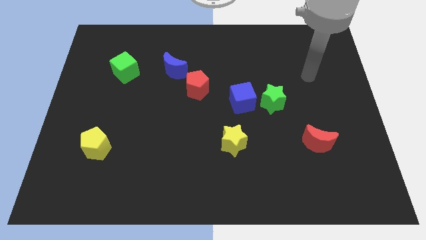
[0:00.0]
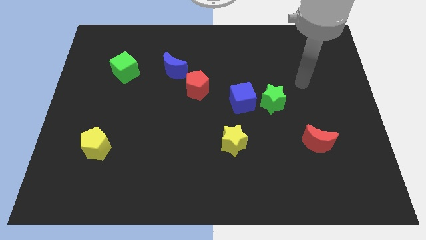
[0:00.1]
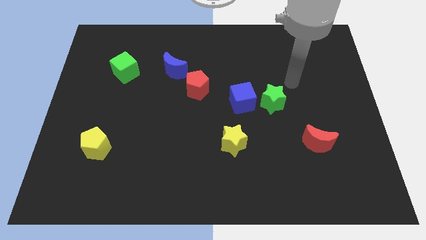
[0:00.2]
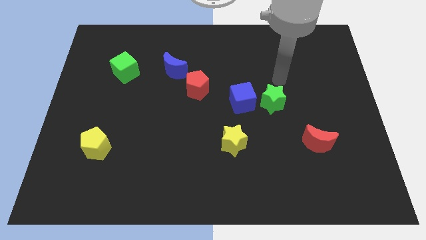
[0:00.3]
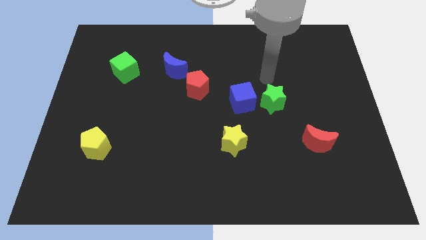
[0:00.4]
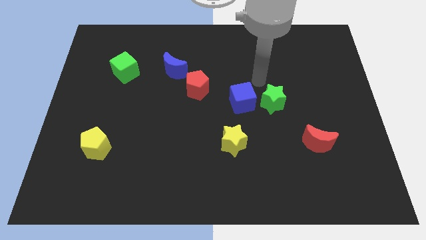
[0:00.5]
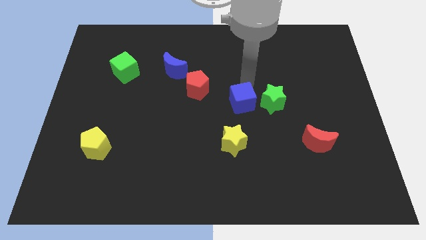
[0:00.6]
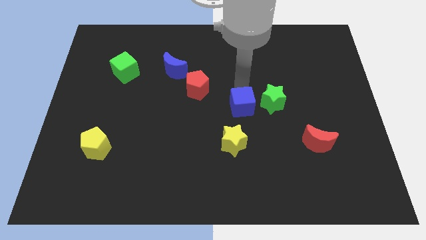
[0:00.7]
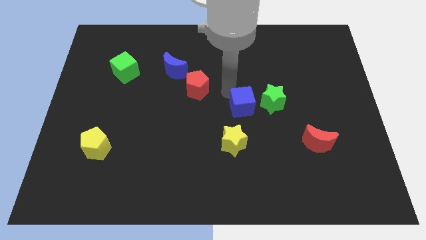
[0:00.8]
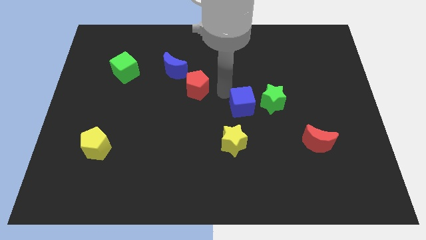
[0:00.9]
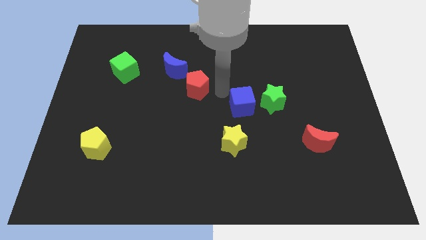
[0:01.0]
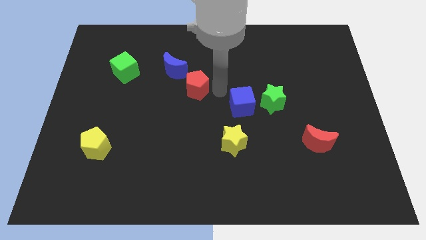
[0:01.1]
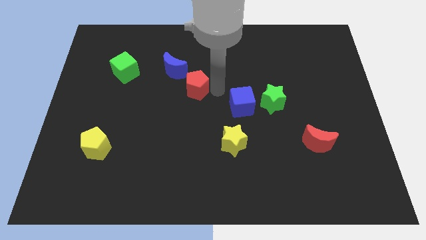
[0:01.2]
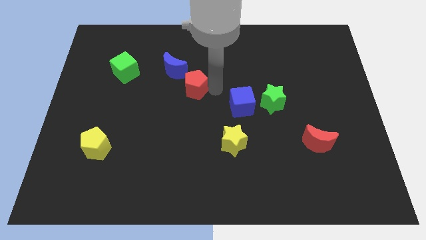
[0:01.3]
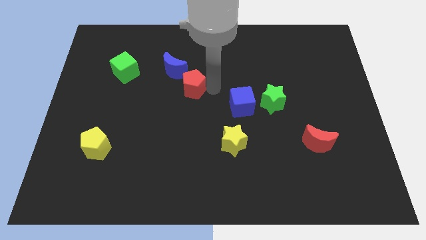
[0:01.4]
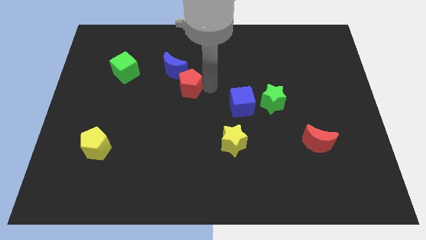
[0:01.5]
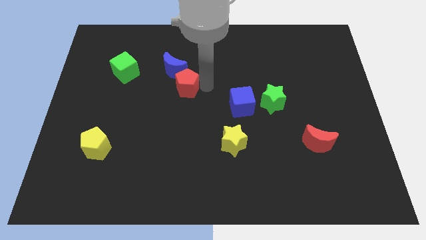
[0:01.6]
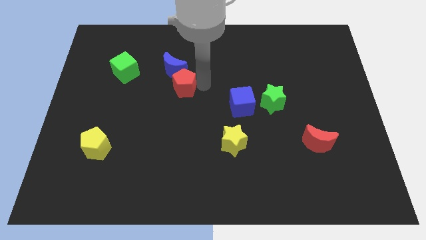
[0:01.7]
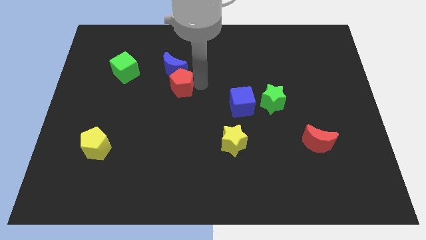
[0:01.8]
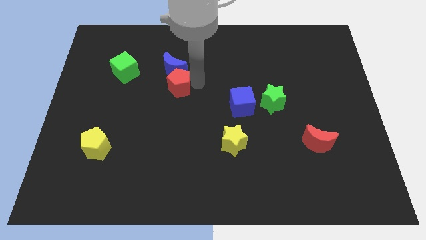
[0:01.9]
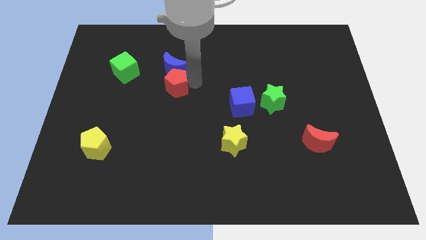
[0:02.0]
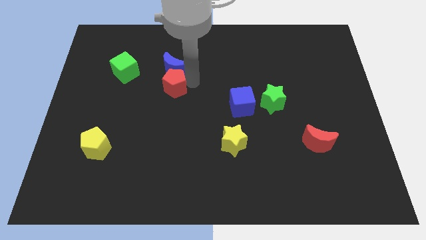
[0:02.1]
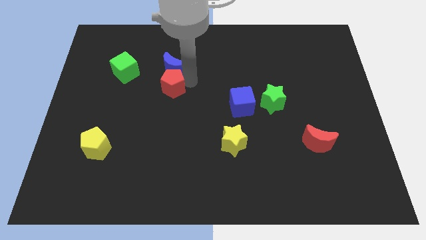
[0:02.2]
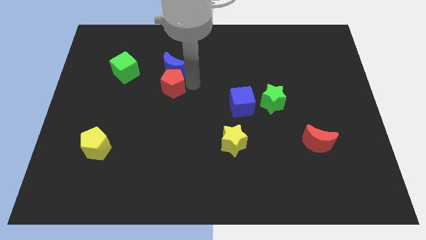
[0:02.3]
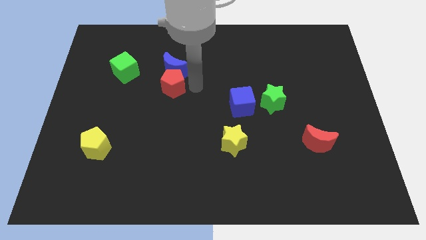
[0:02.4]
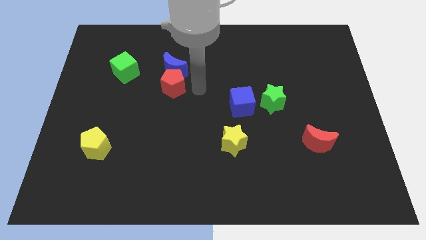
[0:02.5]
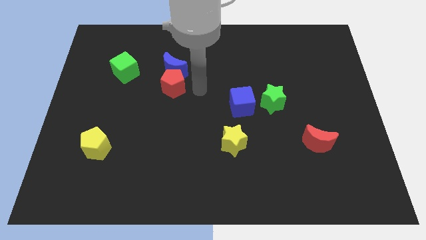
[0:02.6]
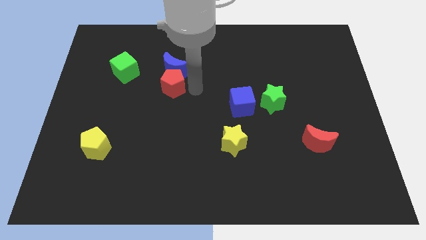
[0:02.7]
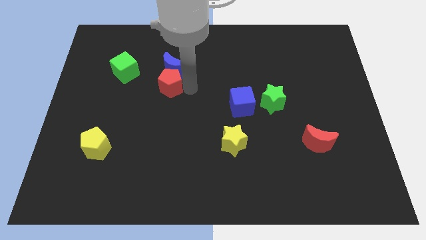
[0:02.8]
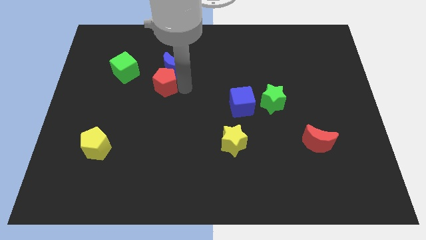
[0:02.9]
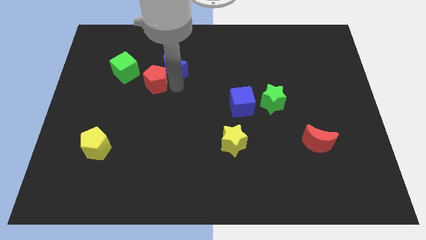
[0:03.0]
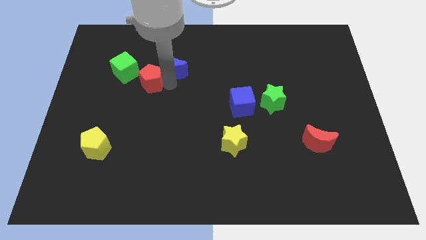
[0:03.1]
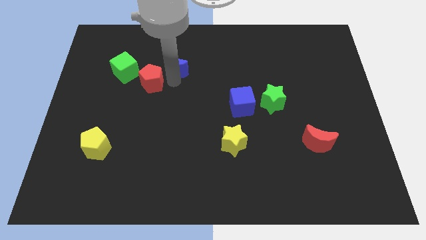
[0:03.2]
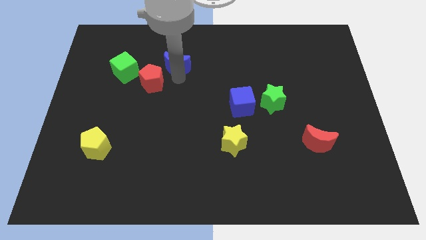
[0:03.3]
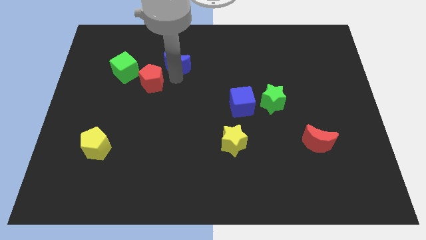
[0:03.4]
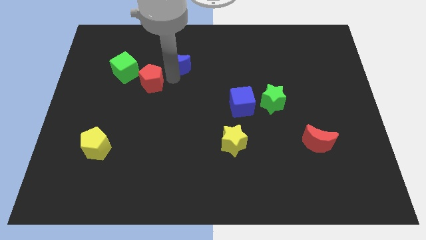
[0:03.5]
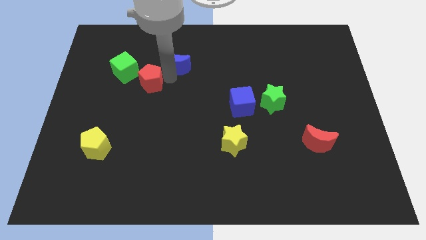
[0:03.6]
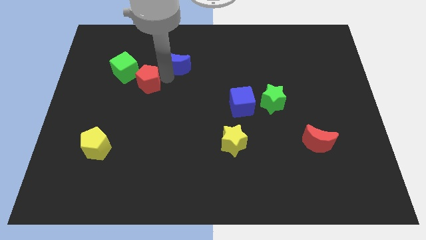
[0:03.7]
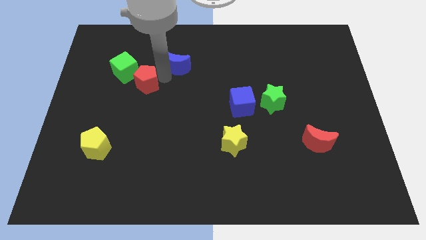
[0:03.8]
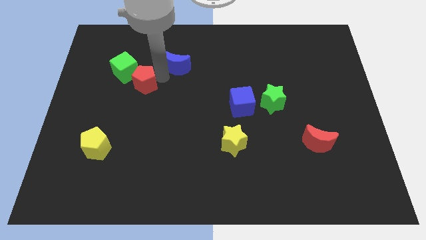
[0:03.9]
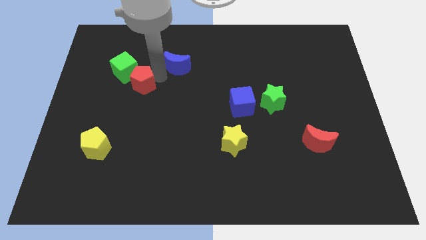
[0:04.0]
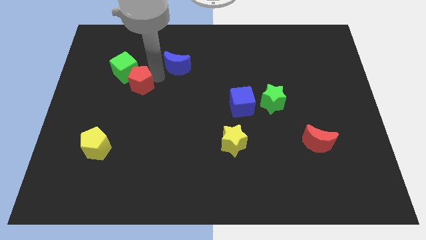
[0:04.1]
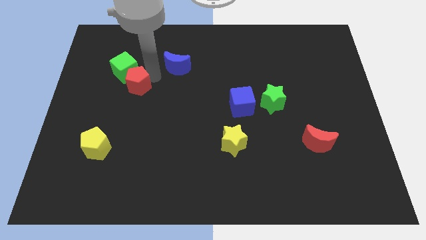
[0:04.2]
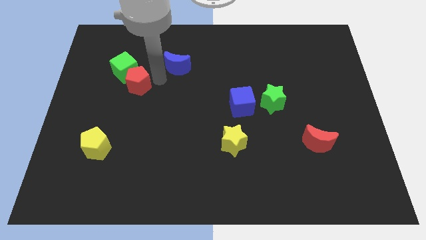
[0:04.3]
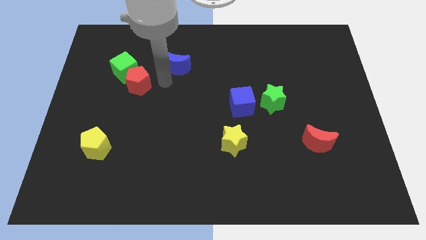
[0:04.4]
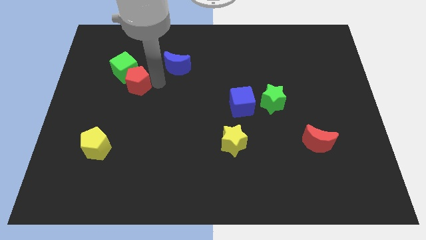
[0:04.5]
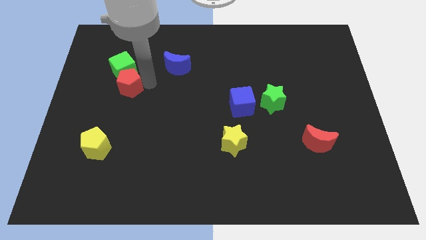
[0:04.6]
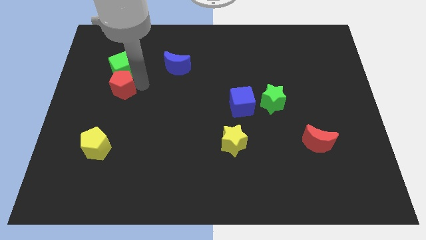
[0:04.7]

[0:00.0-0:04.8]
move the red pentagon to the bottom left of the green cube

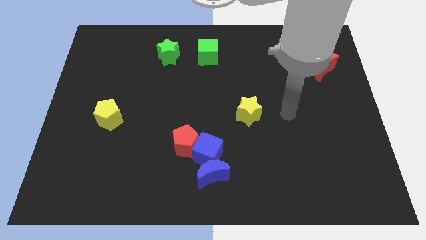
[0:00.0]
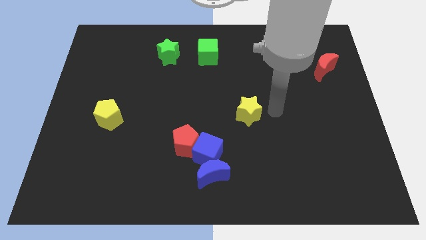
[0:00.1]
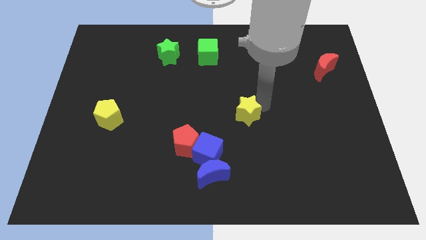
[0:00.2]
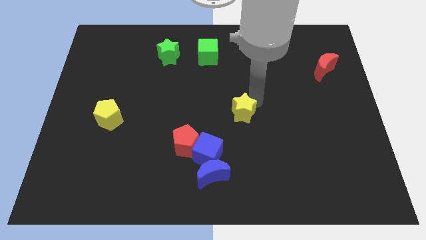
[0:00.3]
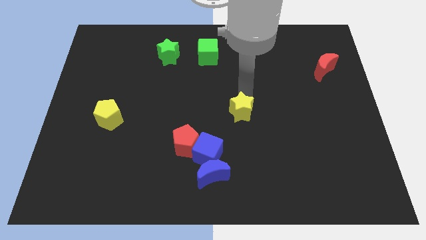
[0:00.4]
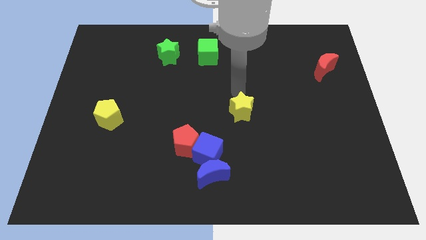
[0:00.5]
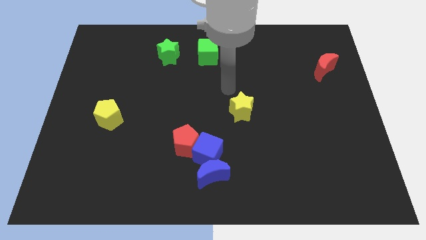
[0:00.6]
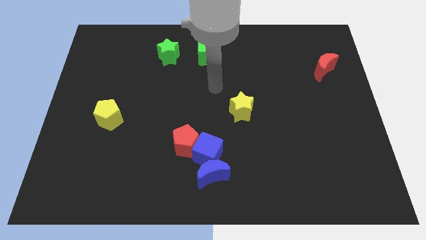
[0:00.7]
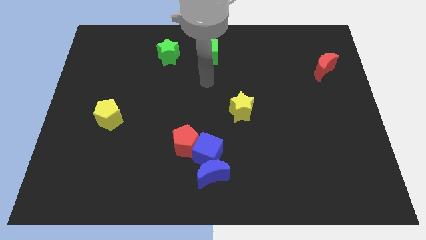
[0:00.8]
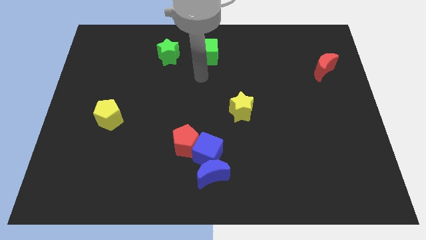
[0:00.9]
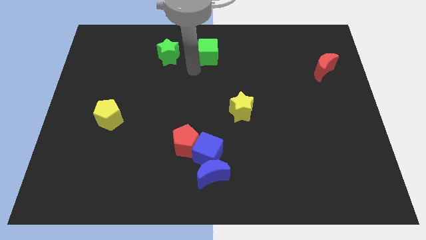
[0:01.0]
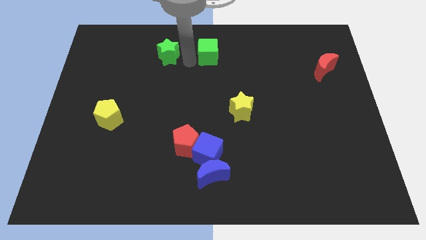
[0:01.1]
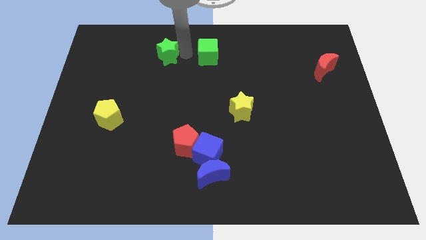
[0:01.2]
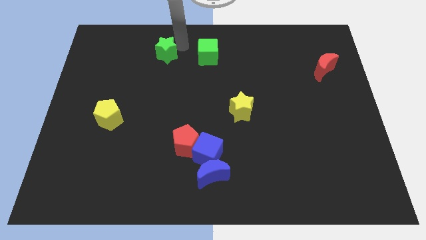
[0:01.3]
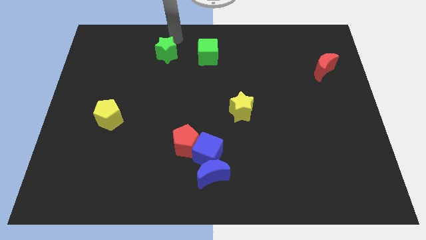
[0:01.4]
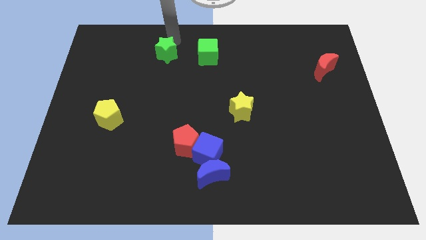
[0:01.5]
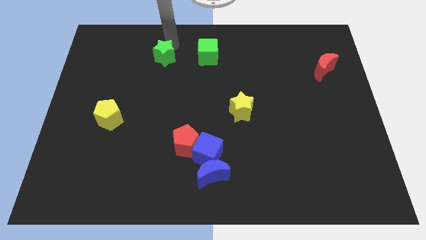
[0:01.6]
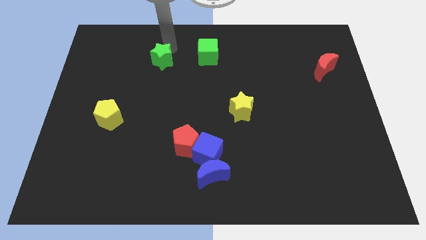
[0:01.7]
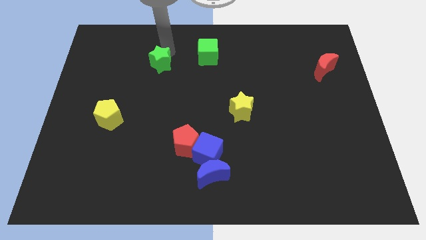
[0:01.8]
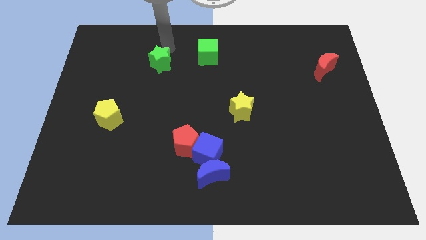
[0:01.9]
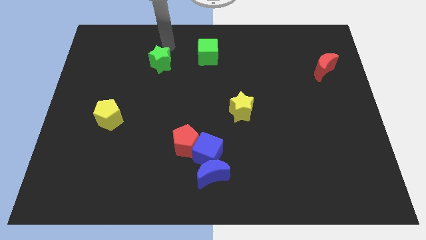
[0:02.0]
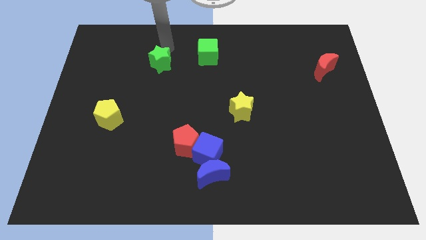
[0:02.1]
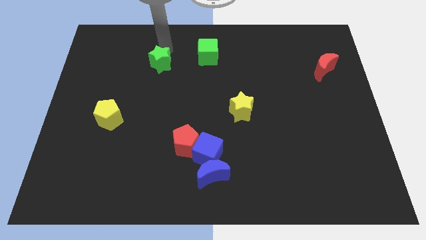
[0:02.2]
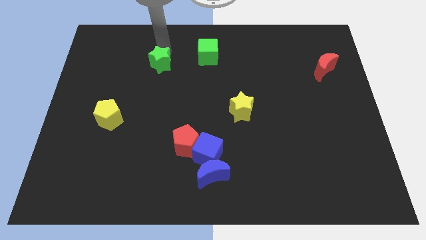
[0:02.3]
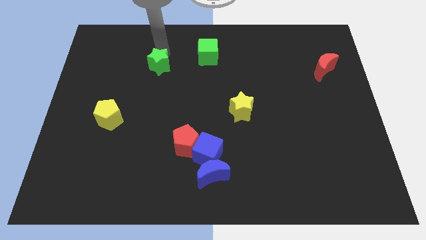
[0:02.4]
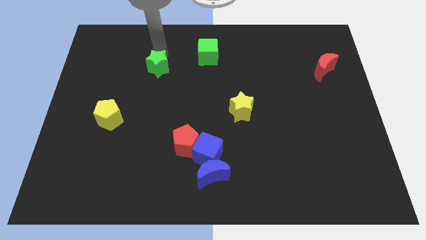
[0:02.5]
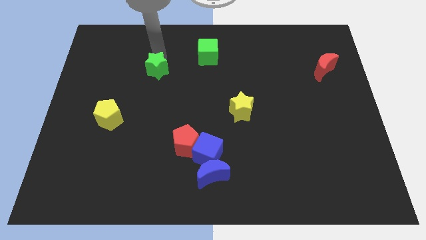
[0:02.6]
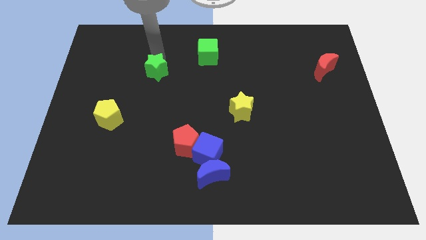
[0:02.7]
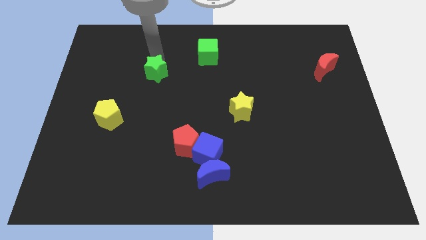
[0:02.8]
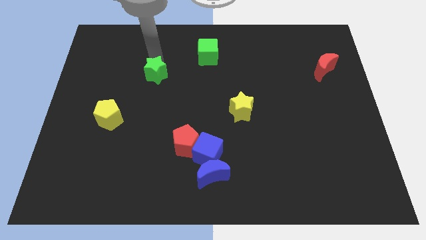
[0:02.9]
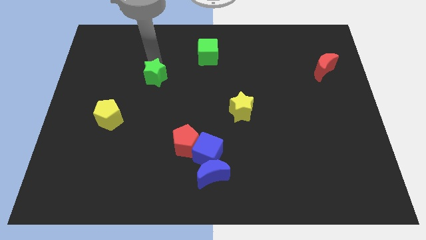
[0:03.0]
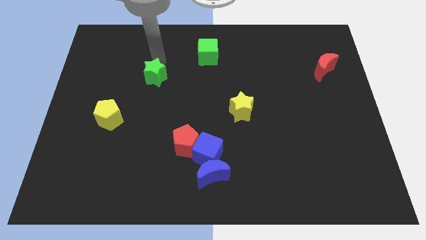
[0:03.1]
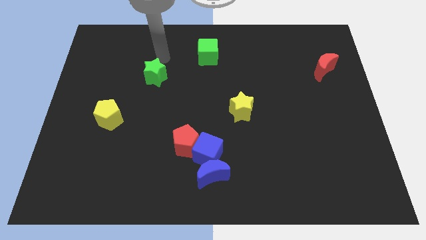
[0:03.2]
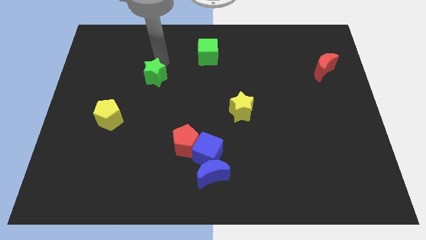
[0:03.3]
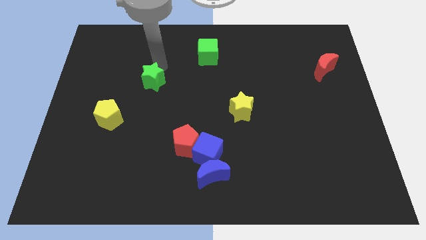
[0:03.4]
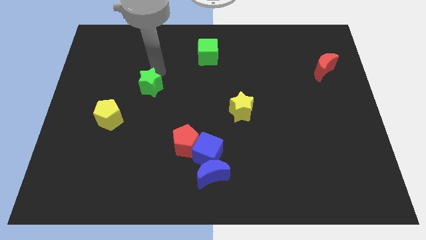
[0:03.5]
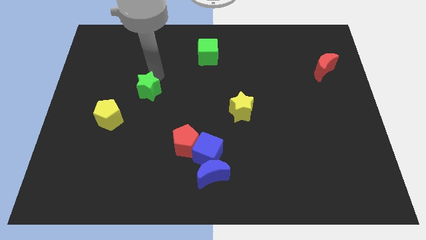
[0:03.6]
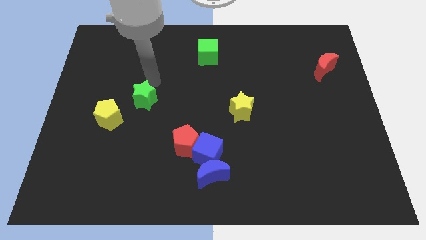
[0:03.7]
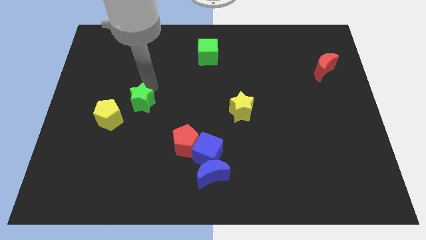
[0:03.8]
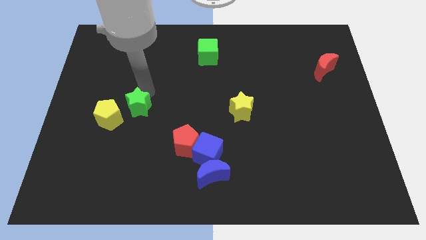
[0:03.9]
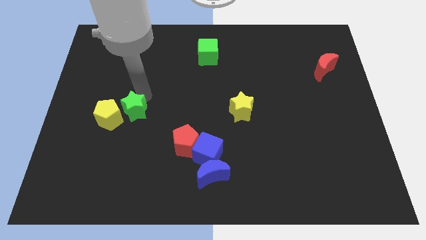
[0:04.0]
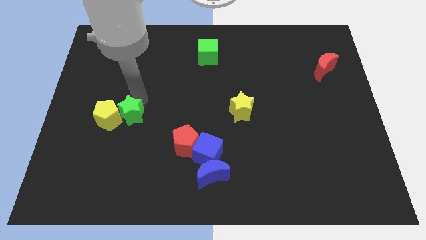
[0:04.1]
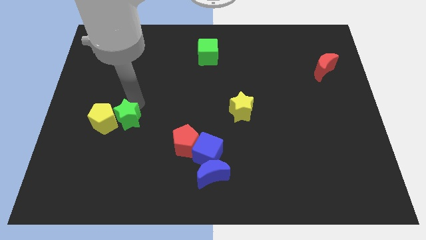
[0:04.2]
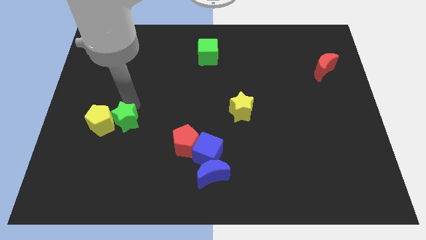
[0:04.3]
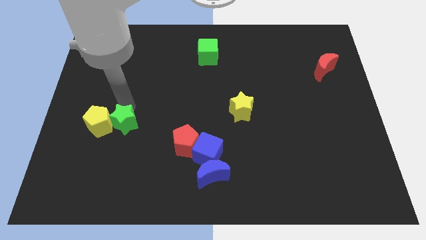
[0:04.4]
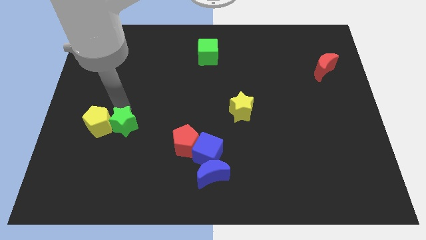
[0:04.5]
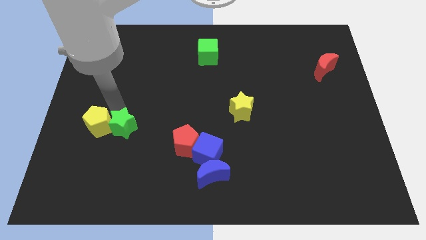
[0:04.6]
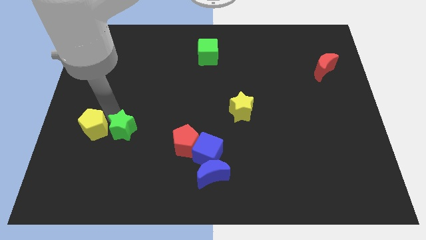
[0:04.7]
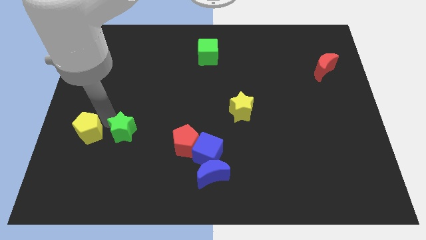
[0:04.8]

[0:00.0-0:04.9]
push the green star to the left of the red pentagon
